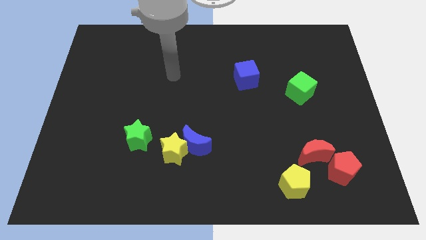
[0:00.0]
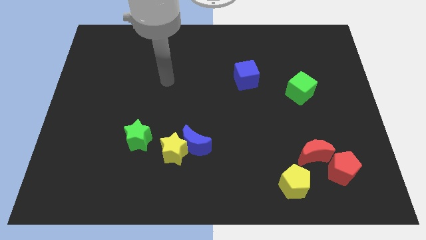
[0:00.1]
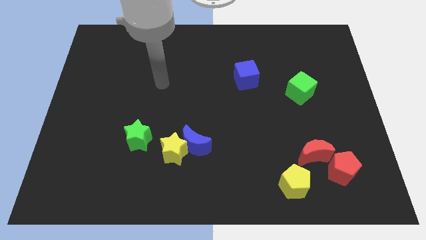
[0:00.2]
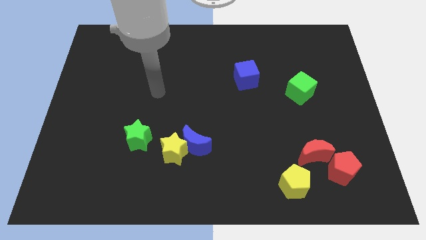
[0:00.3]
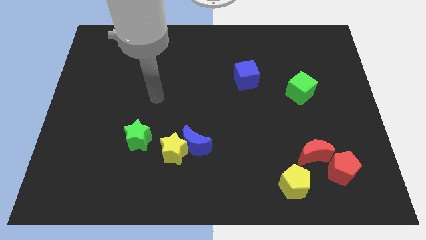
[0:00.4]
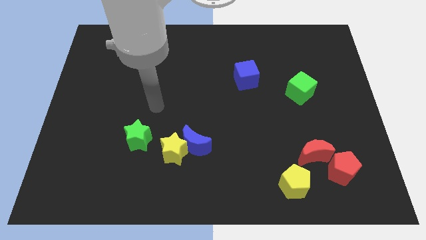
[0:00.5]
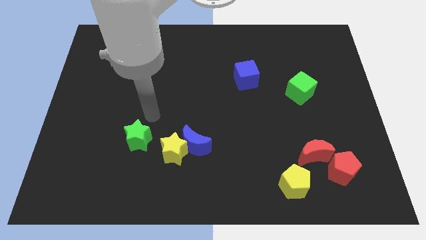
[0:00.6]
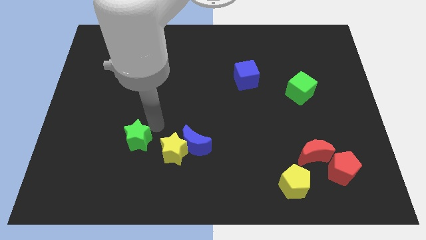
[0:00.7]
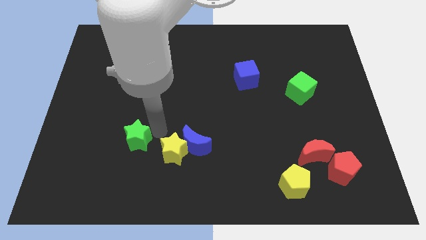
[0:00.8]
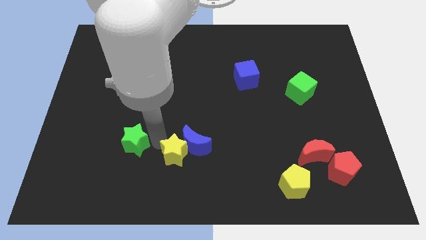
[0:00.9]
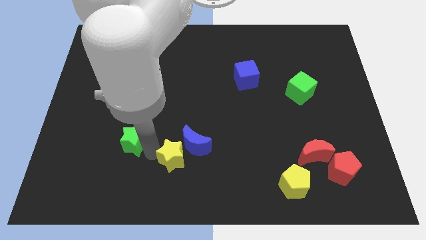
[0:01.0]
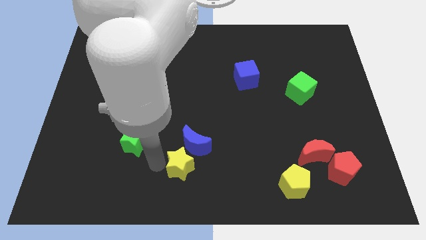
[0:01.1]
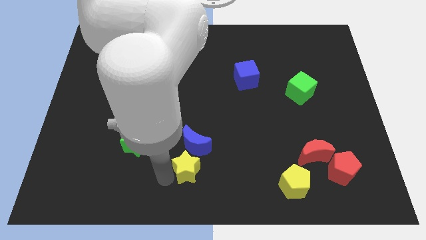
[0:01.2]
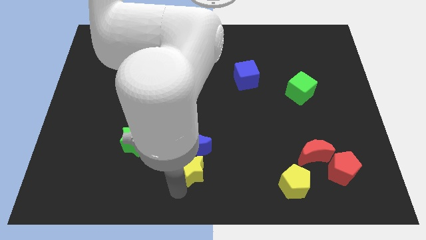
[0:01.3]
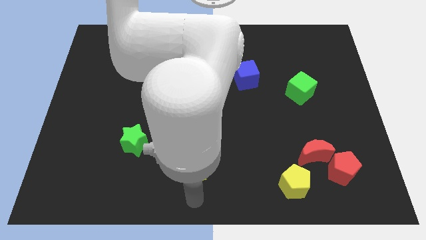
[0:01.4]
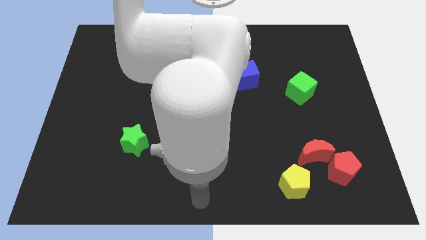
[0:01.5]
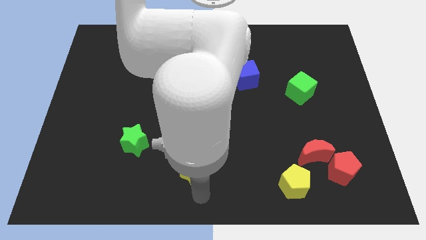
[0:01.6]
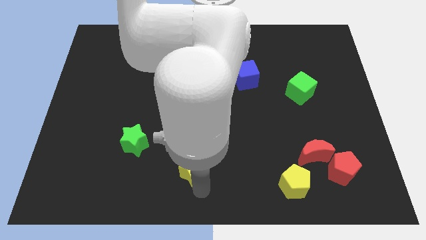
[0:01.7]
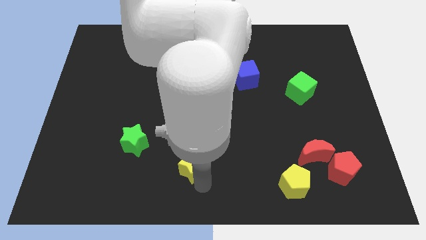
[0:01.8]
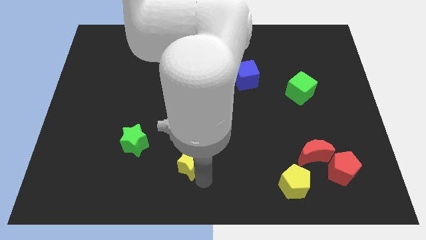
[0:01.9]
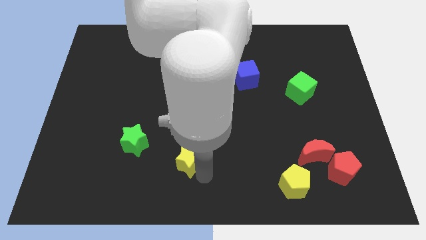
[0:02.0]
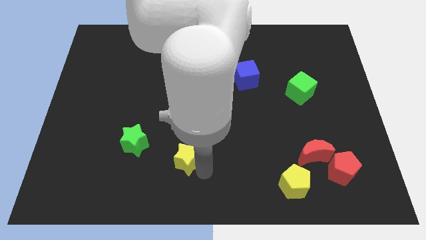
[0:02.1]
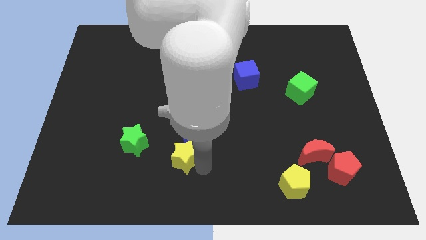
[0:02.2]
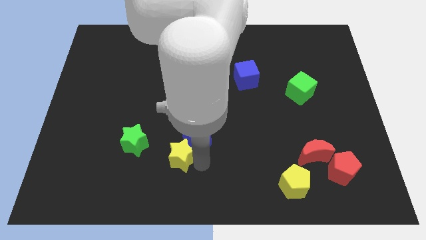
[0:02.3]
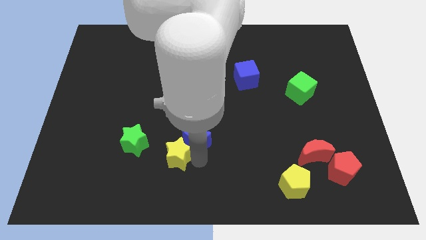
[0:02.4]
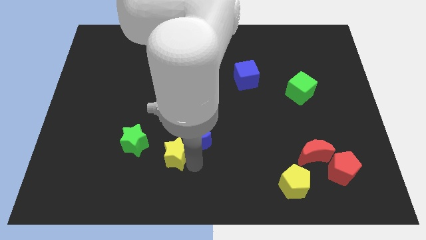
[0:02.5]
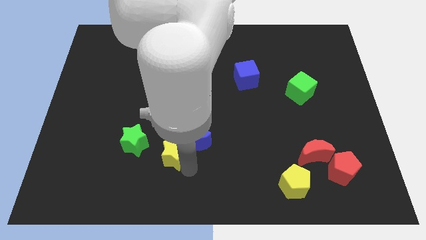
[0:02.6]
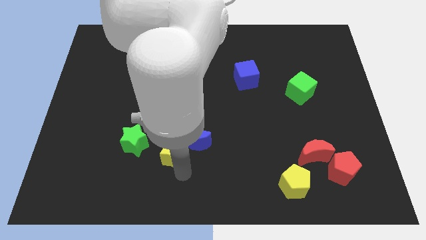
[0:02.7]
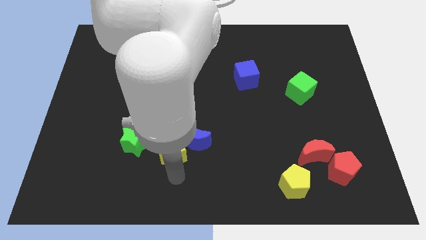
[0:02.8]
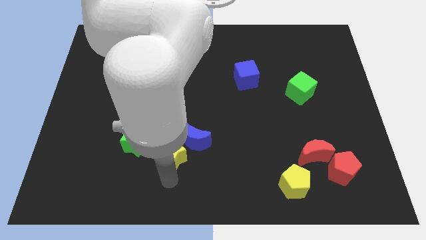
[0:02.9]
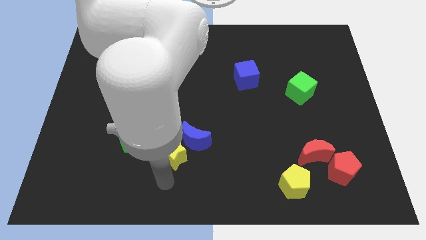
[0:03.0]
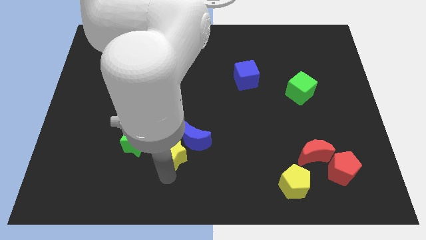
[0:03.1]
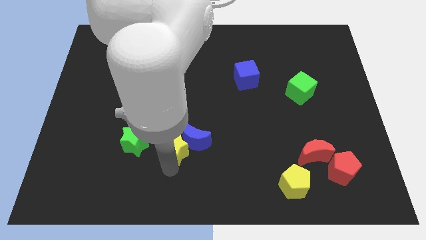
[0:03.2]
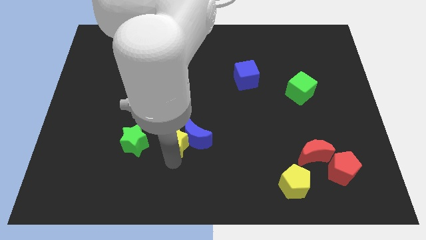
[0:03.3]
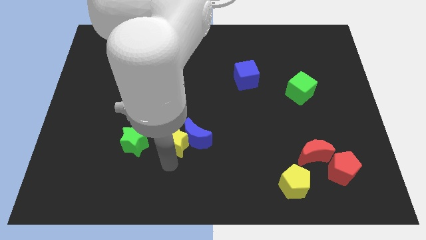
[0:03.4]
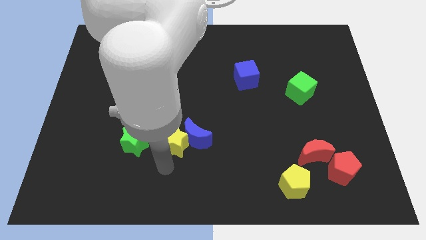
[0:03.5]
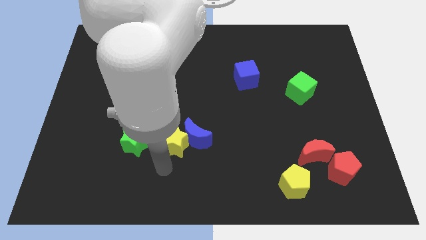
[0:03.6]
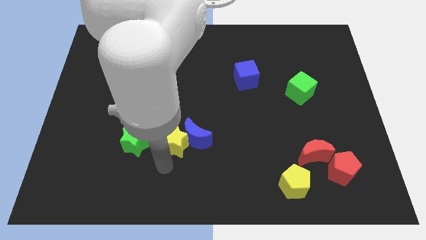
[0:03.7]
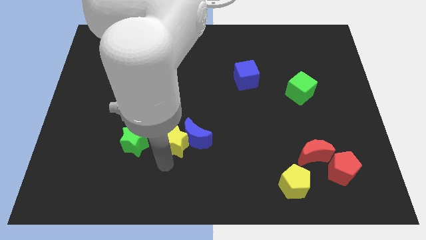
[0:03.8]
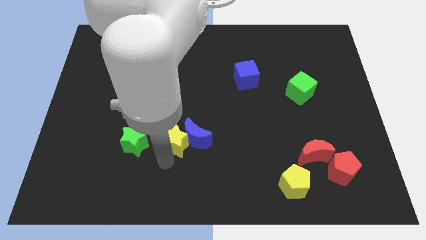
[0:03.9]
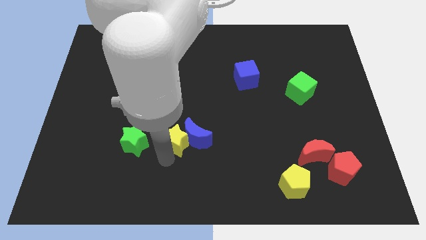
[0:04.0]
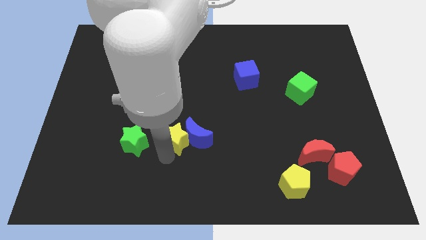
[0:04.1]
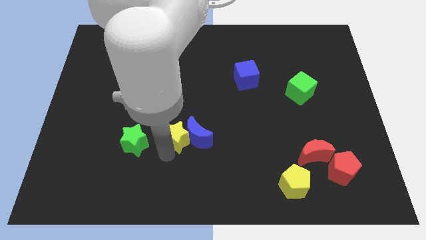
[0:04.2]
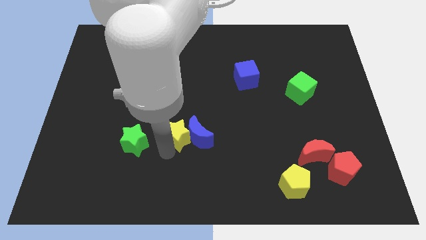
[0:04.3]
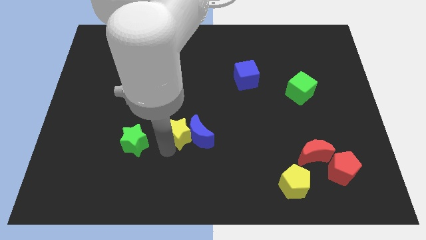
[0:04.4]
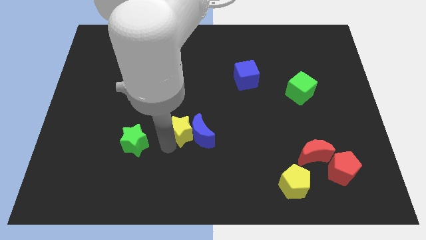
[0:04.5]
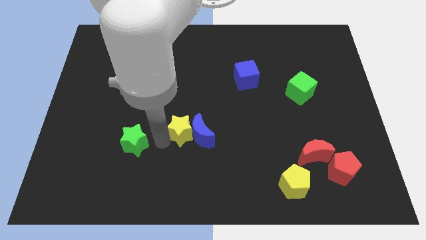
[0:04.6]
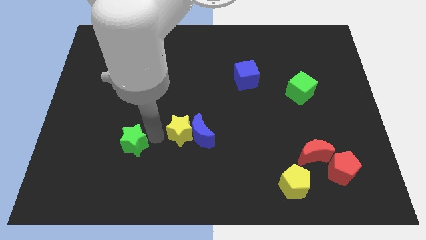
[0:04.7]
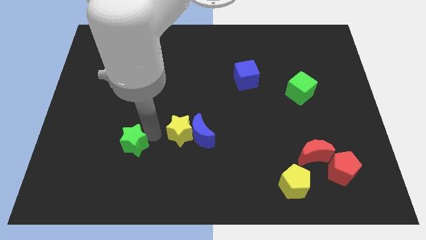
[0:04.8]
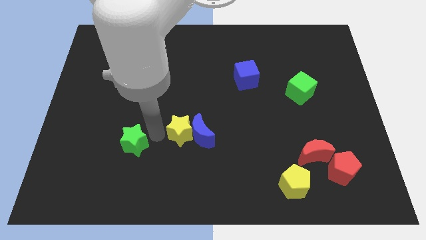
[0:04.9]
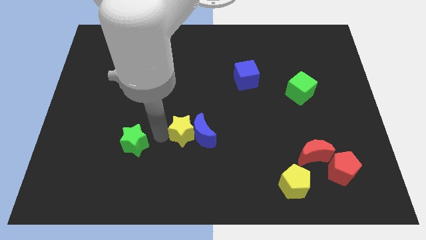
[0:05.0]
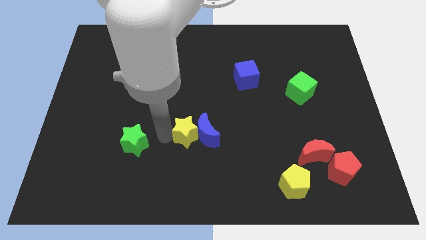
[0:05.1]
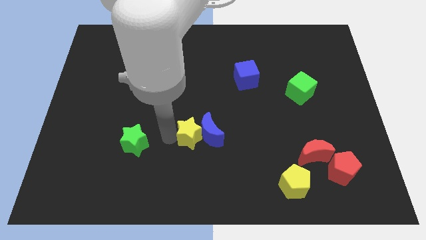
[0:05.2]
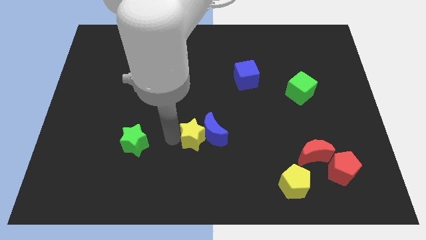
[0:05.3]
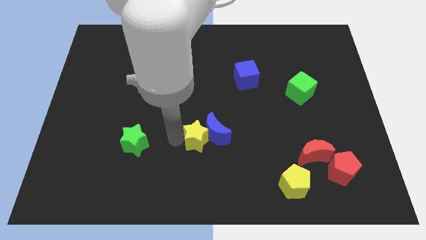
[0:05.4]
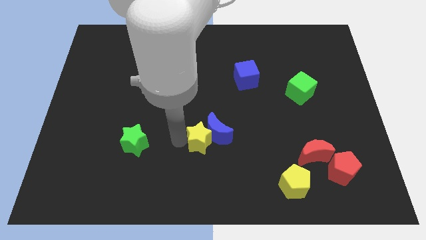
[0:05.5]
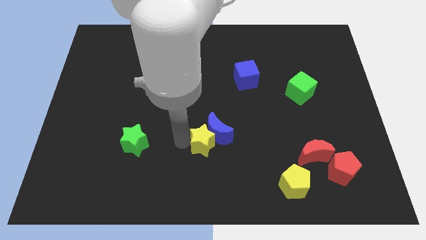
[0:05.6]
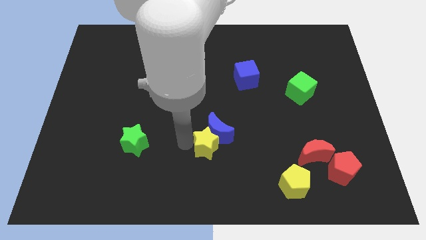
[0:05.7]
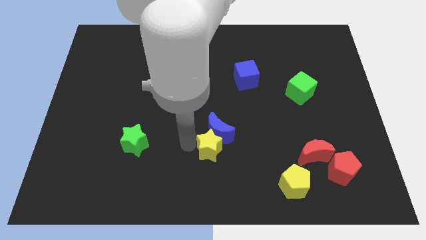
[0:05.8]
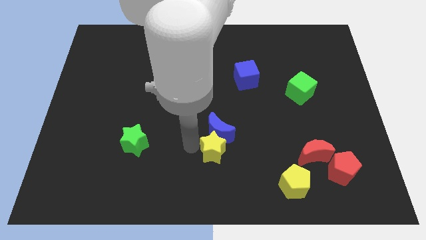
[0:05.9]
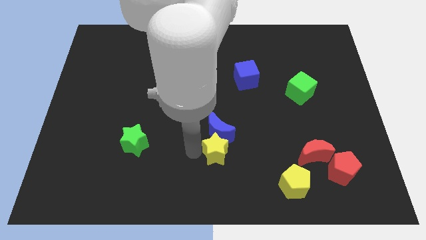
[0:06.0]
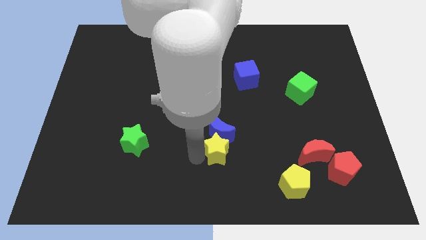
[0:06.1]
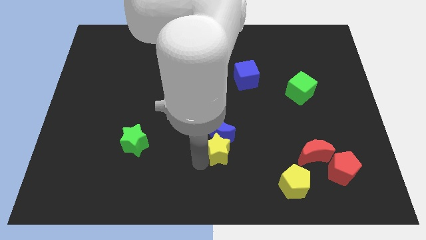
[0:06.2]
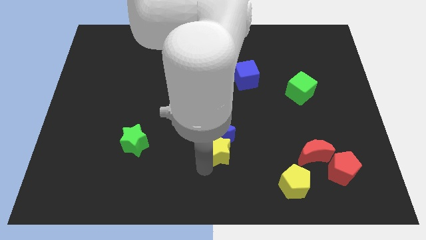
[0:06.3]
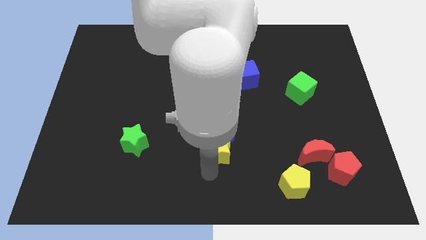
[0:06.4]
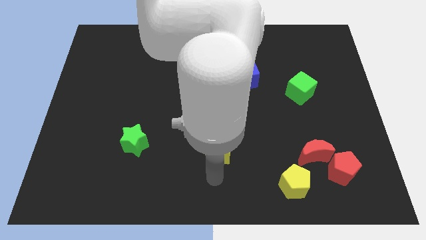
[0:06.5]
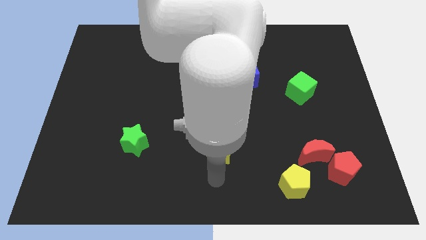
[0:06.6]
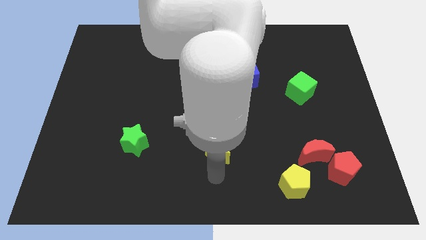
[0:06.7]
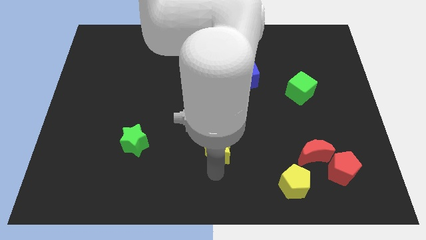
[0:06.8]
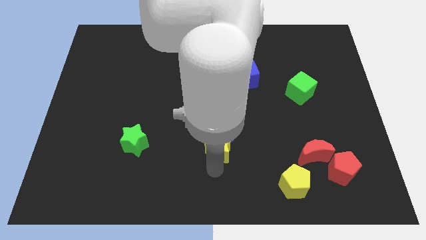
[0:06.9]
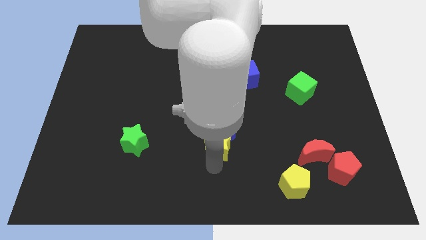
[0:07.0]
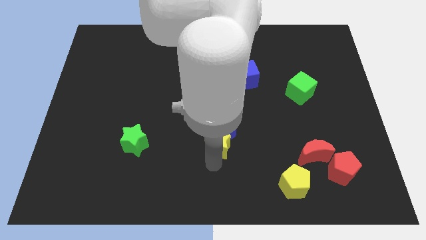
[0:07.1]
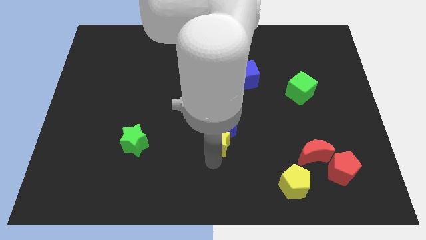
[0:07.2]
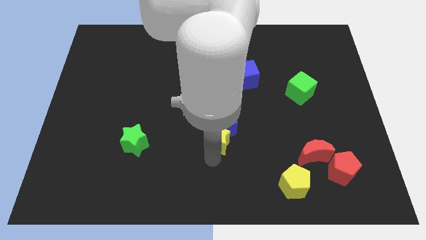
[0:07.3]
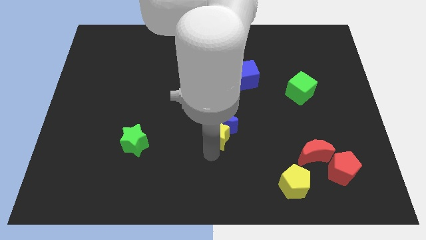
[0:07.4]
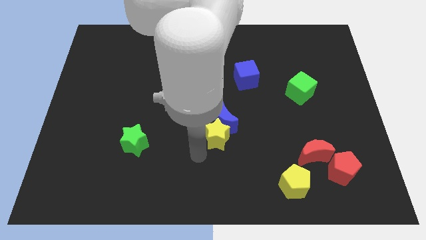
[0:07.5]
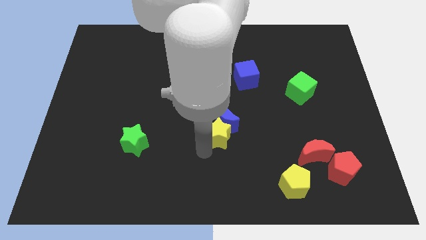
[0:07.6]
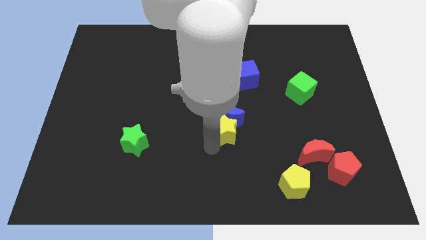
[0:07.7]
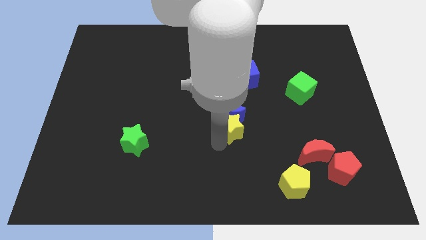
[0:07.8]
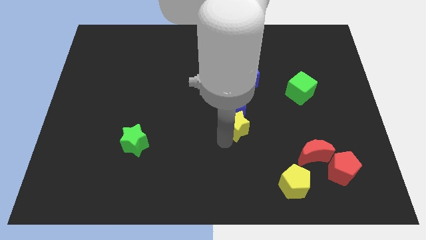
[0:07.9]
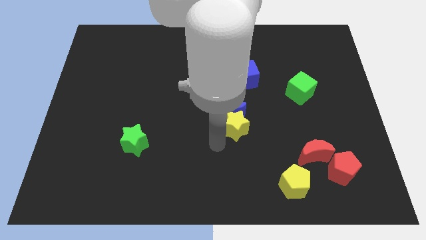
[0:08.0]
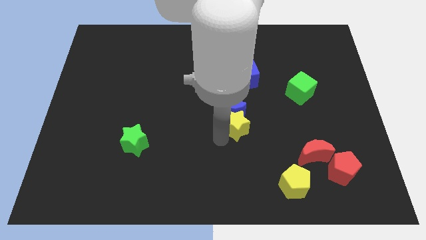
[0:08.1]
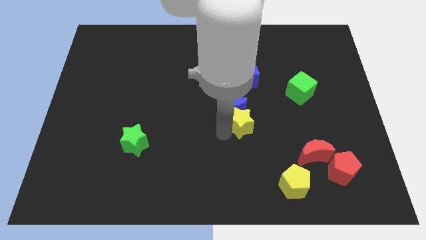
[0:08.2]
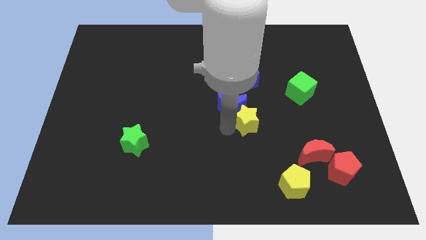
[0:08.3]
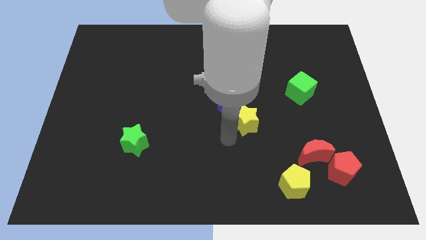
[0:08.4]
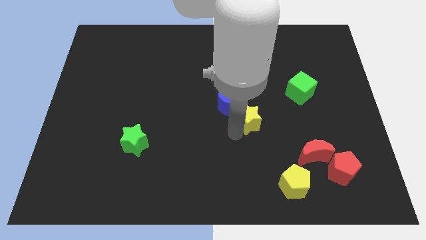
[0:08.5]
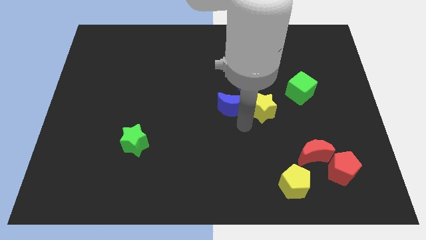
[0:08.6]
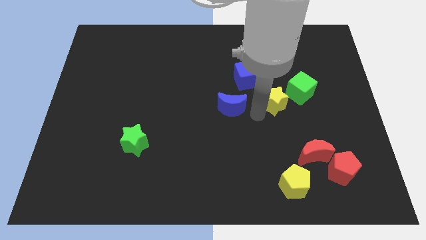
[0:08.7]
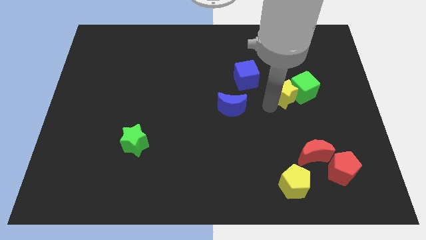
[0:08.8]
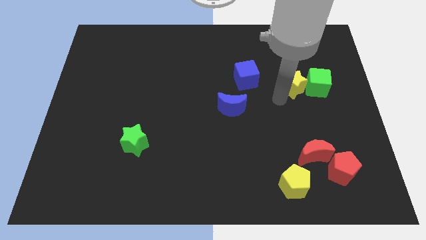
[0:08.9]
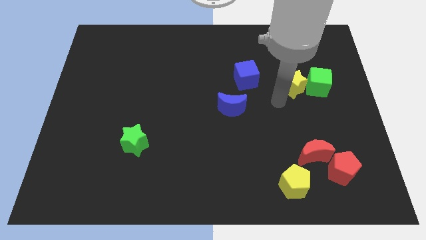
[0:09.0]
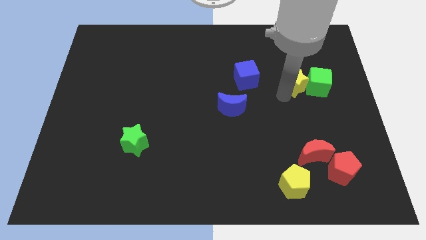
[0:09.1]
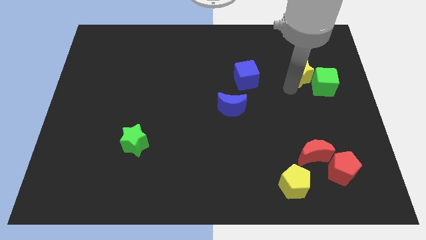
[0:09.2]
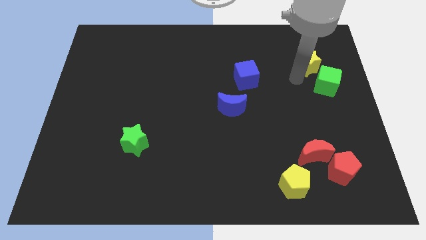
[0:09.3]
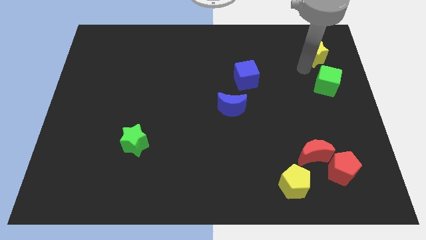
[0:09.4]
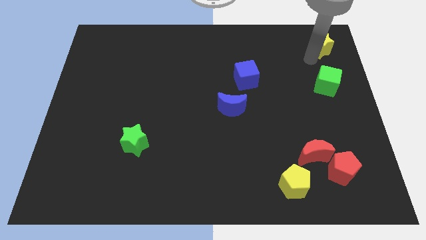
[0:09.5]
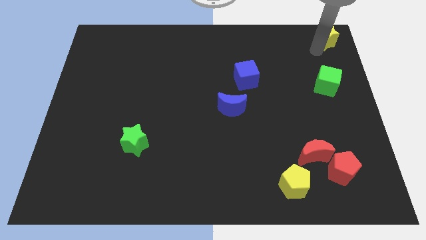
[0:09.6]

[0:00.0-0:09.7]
put the yellow star to the top right corner
